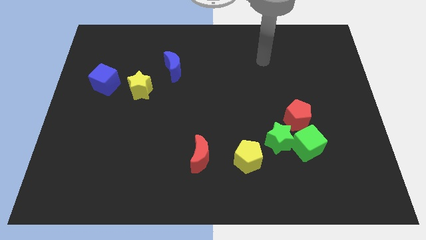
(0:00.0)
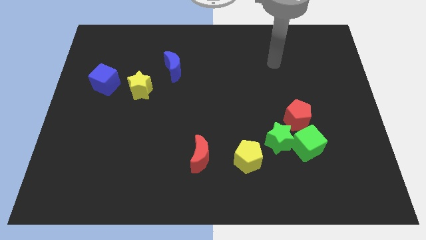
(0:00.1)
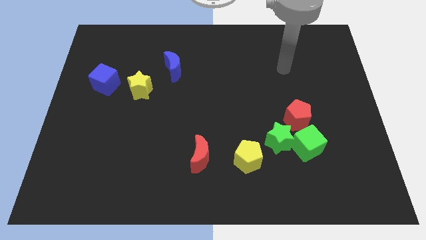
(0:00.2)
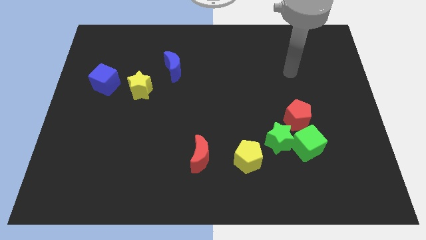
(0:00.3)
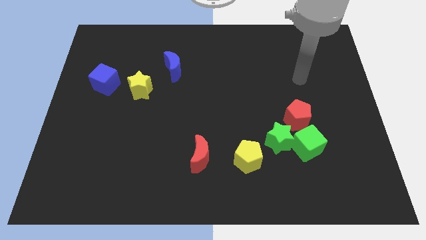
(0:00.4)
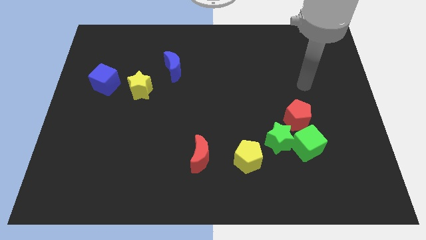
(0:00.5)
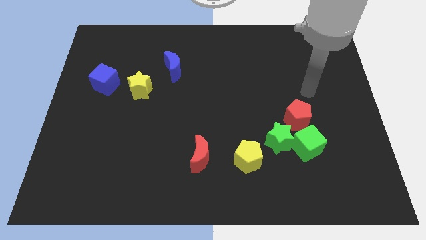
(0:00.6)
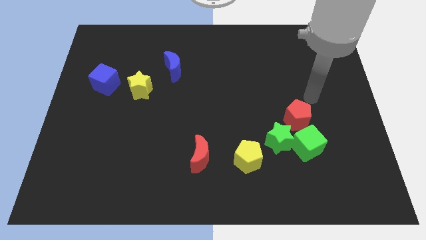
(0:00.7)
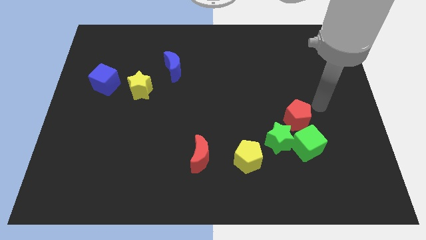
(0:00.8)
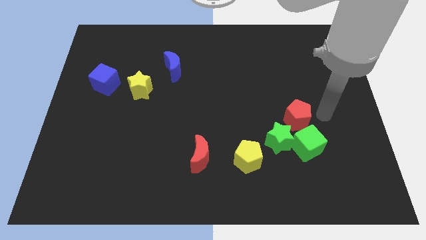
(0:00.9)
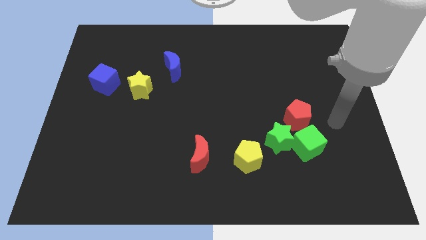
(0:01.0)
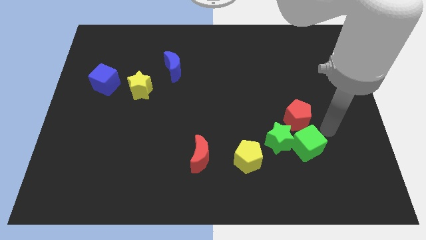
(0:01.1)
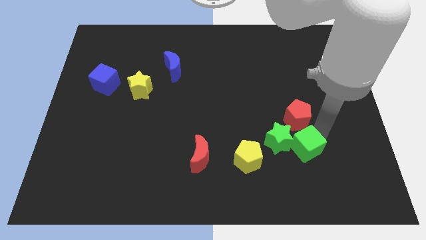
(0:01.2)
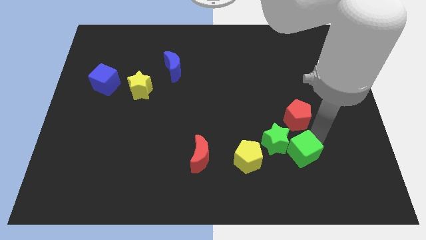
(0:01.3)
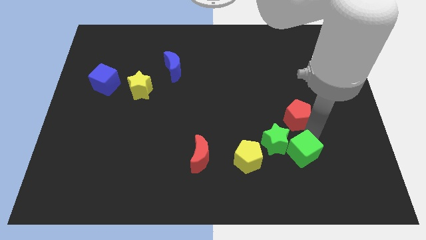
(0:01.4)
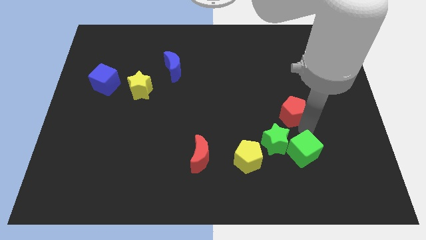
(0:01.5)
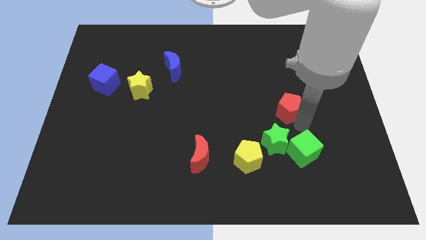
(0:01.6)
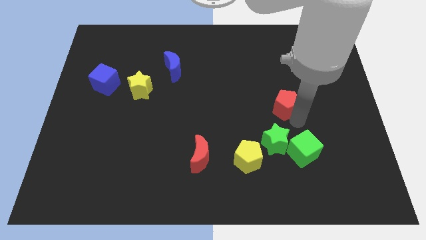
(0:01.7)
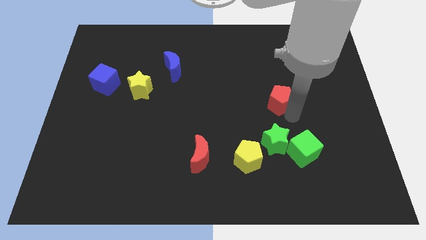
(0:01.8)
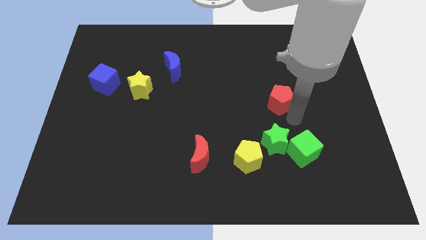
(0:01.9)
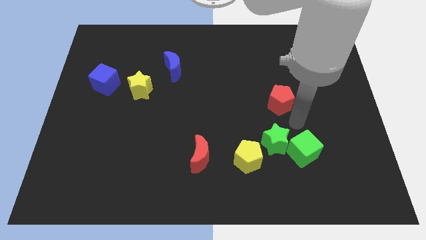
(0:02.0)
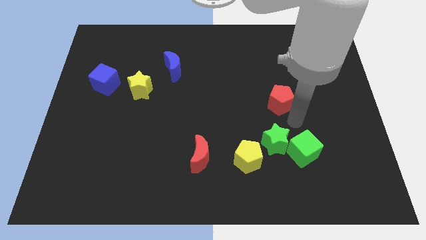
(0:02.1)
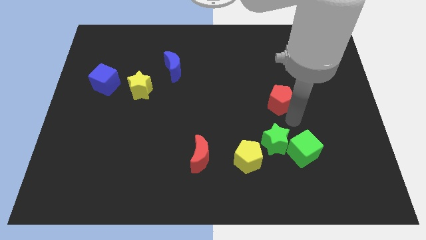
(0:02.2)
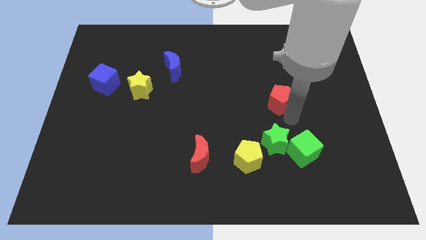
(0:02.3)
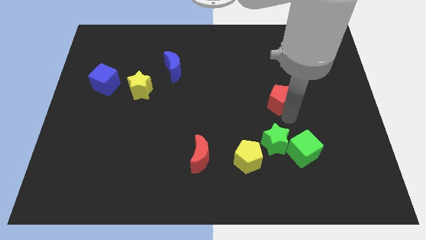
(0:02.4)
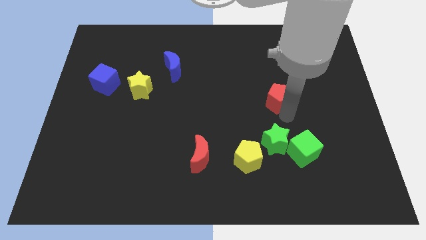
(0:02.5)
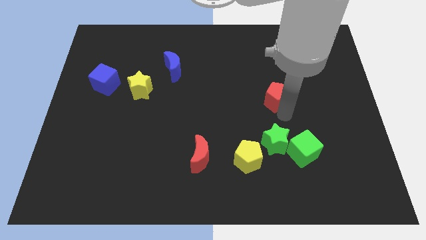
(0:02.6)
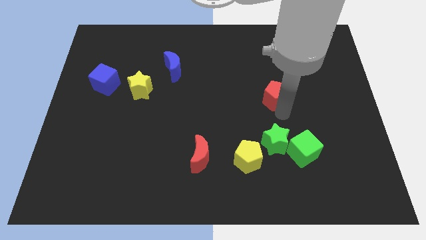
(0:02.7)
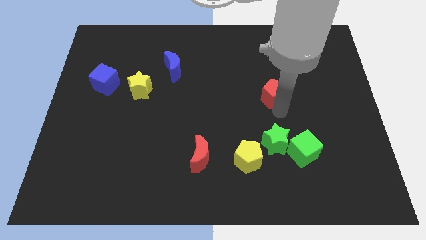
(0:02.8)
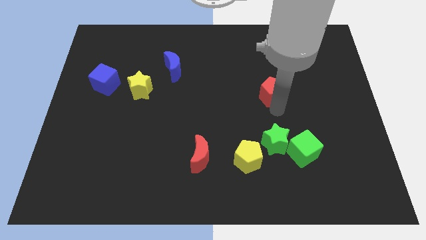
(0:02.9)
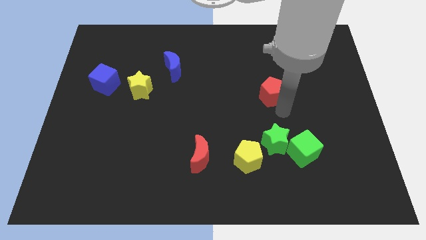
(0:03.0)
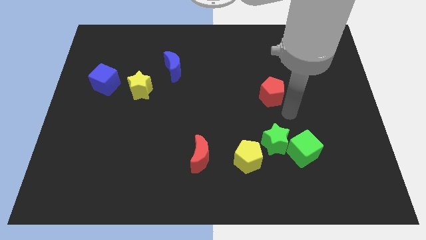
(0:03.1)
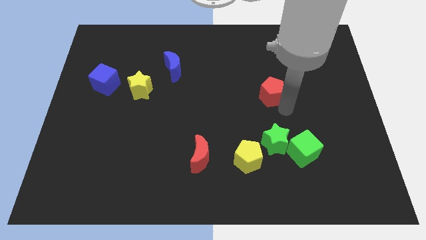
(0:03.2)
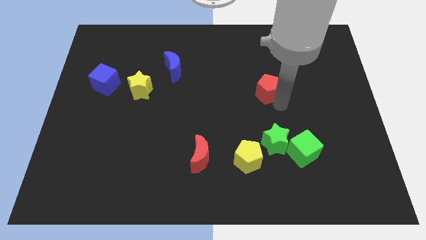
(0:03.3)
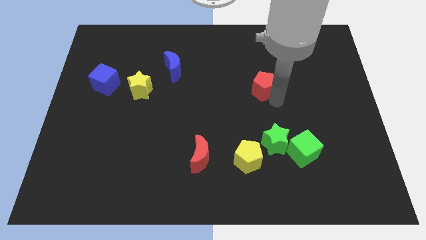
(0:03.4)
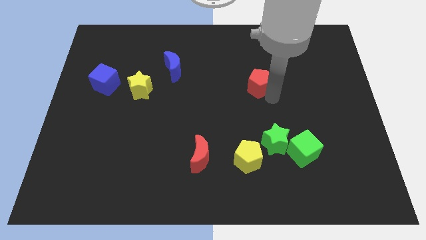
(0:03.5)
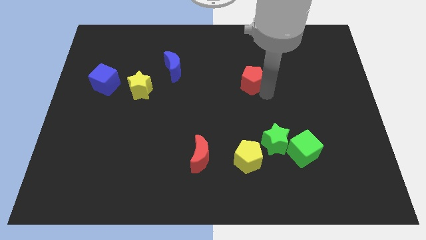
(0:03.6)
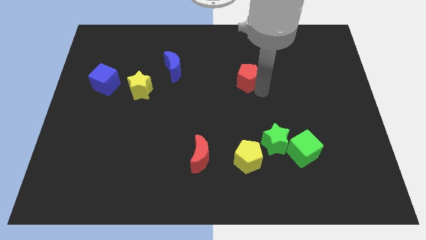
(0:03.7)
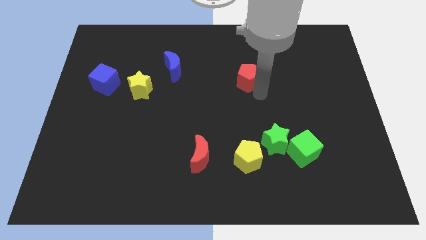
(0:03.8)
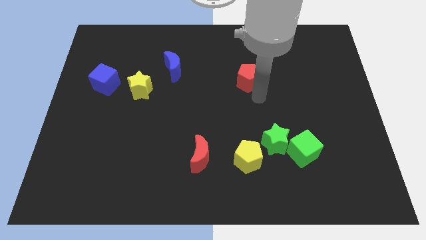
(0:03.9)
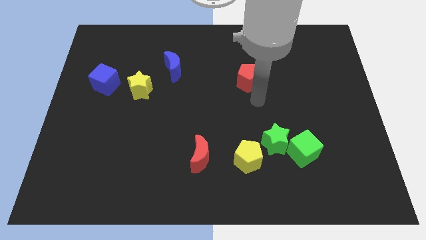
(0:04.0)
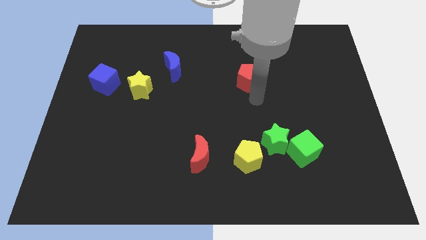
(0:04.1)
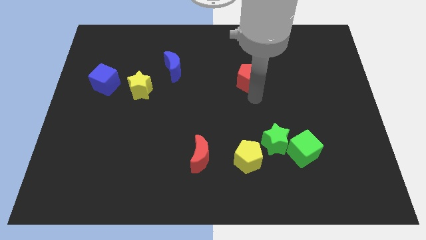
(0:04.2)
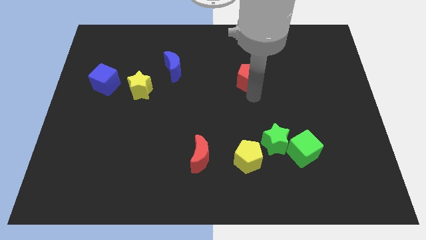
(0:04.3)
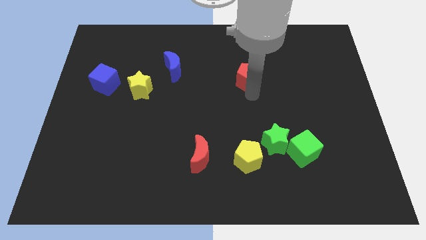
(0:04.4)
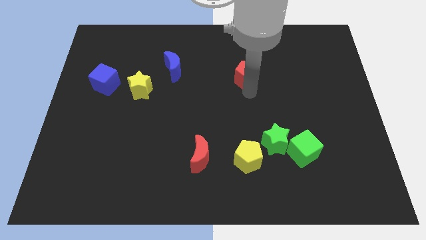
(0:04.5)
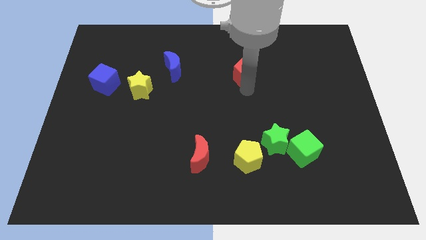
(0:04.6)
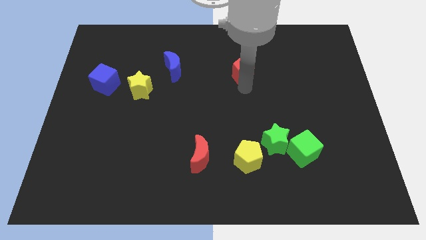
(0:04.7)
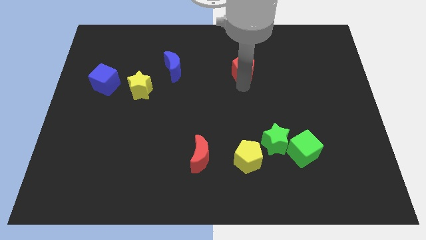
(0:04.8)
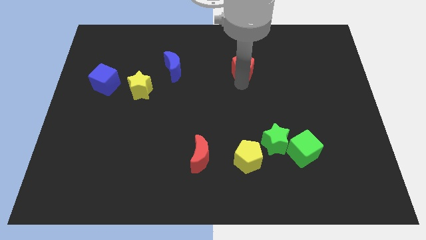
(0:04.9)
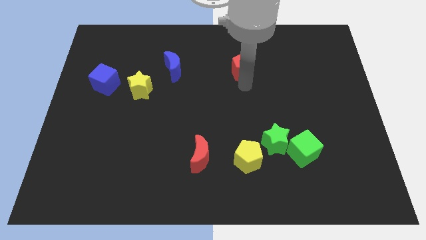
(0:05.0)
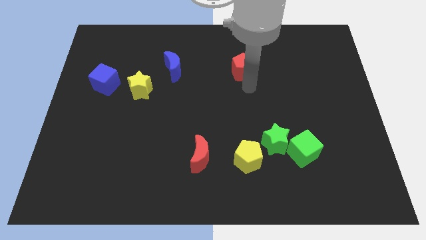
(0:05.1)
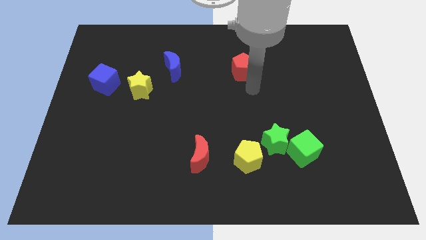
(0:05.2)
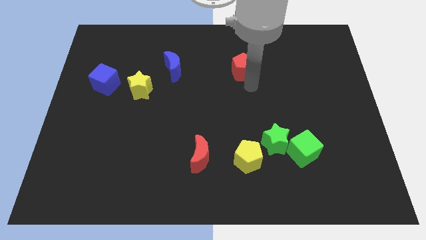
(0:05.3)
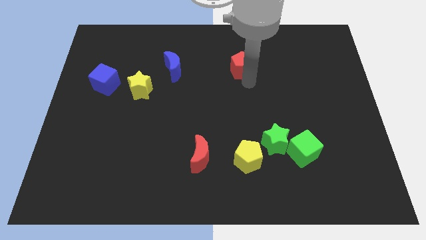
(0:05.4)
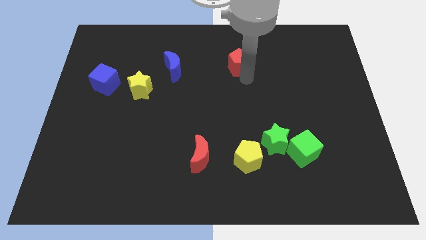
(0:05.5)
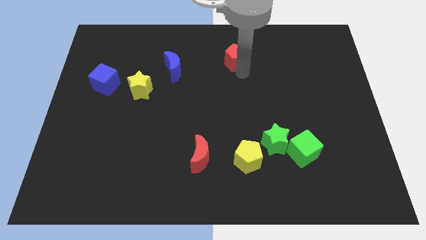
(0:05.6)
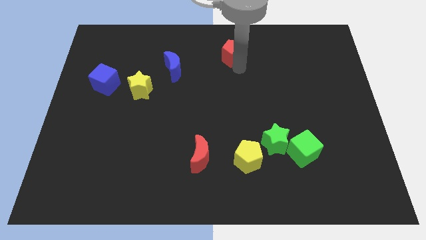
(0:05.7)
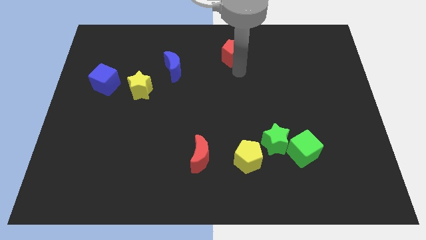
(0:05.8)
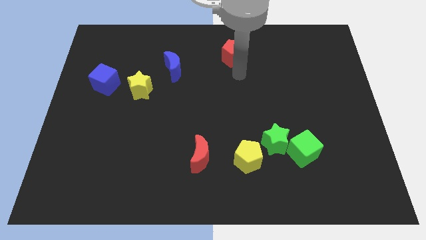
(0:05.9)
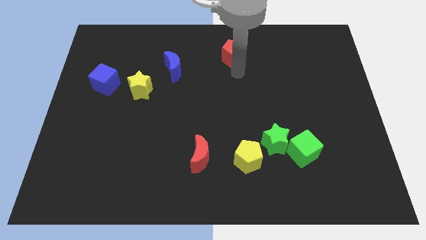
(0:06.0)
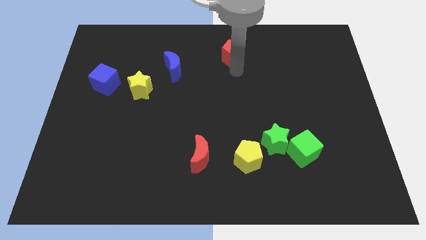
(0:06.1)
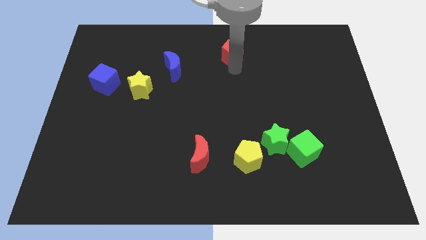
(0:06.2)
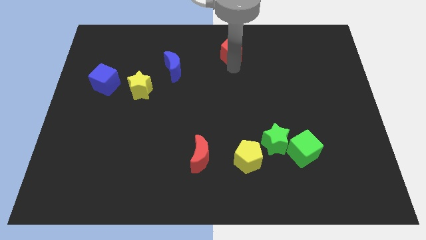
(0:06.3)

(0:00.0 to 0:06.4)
slide the red pentagon to the towards your base
